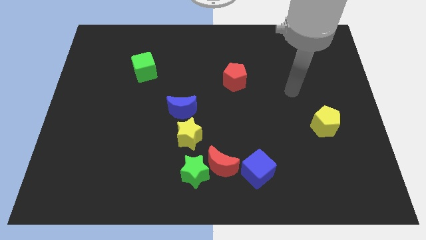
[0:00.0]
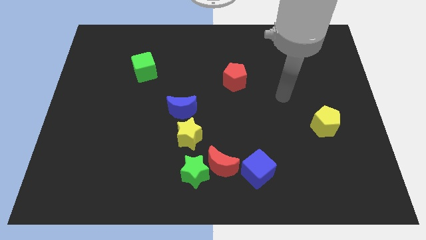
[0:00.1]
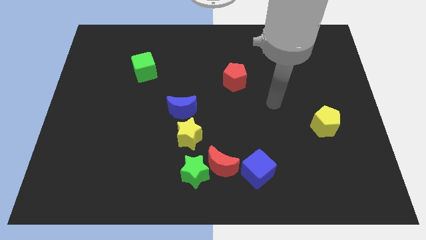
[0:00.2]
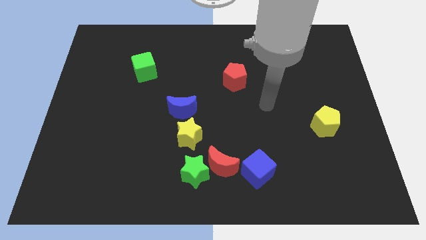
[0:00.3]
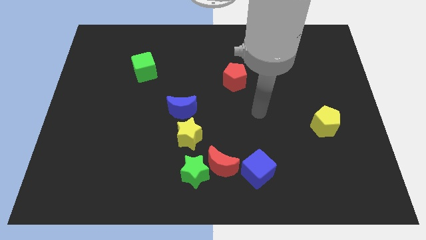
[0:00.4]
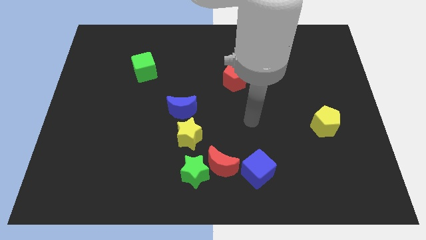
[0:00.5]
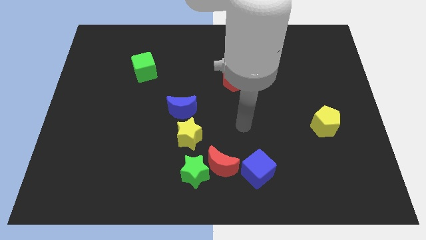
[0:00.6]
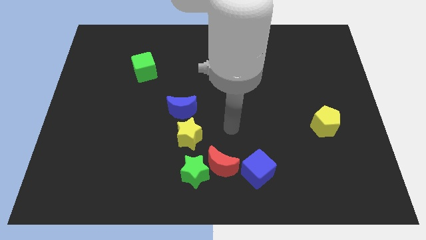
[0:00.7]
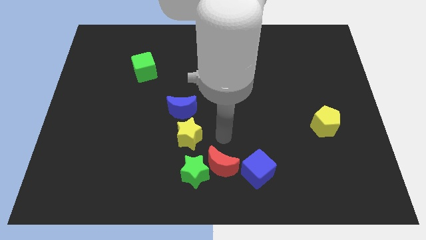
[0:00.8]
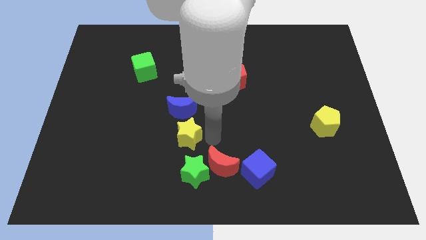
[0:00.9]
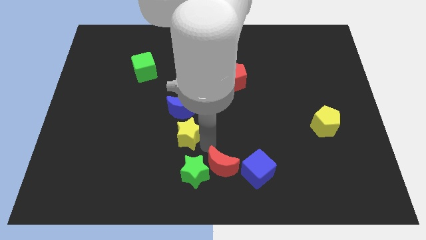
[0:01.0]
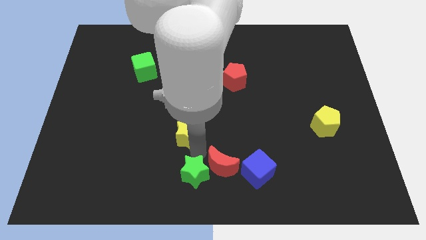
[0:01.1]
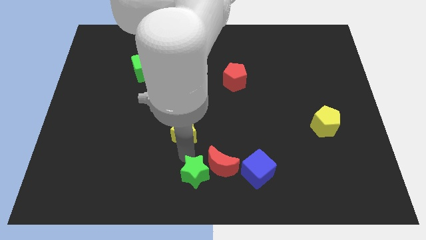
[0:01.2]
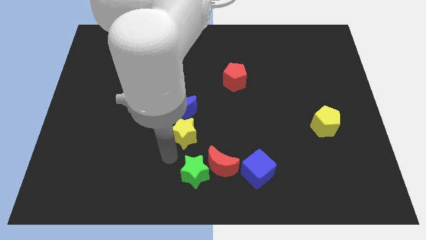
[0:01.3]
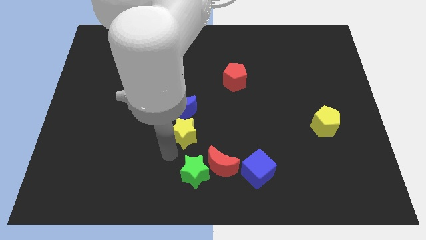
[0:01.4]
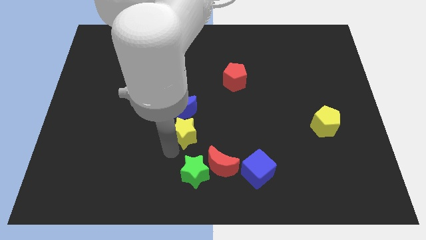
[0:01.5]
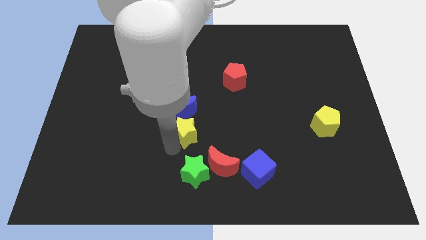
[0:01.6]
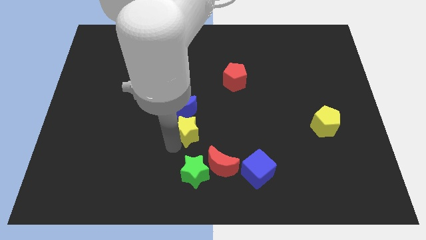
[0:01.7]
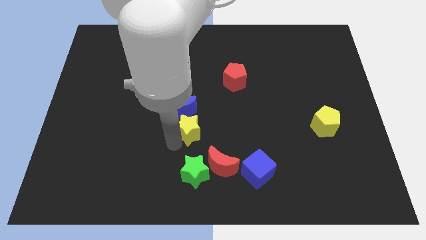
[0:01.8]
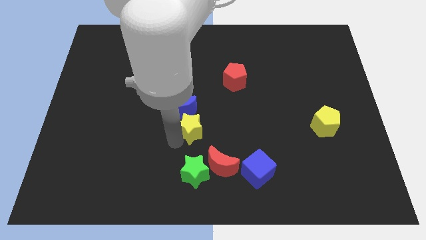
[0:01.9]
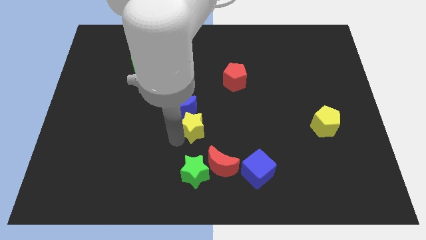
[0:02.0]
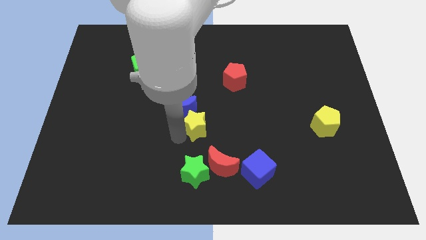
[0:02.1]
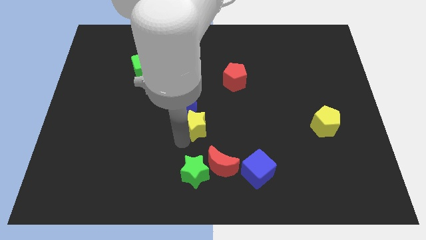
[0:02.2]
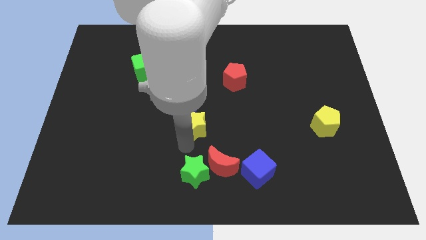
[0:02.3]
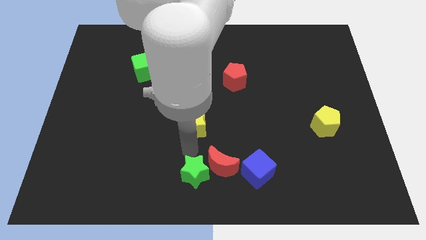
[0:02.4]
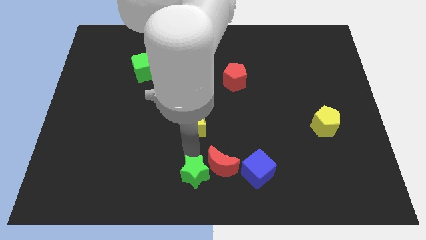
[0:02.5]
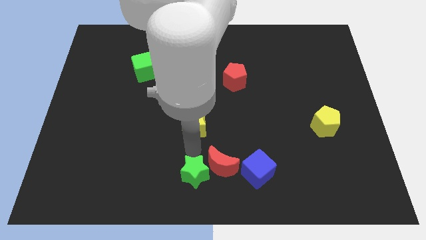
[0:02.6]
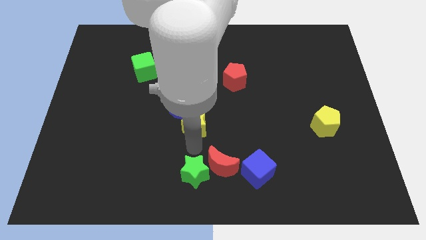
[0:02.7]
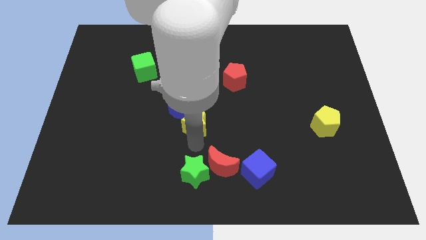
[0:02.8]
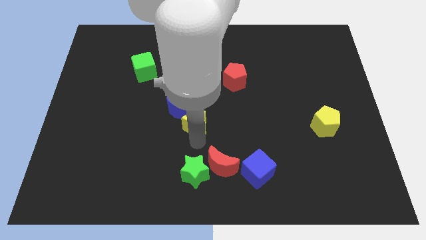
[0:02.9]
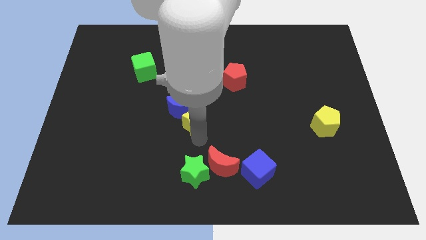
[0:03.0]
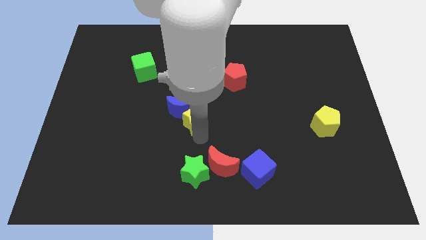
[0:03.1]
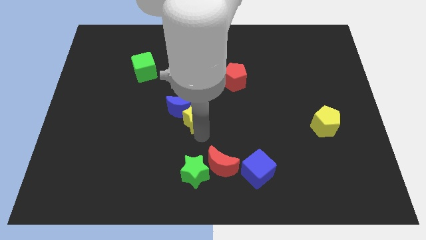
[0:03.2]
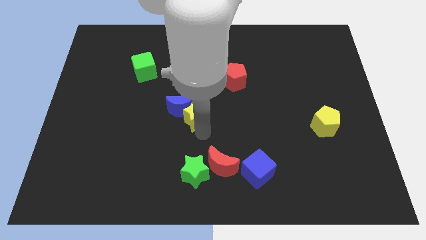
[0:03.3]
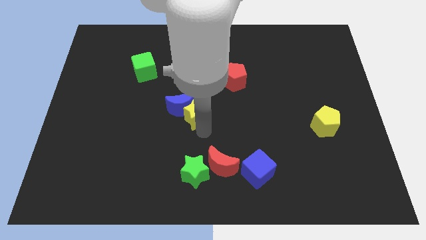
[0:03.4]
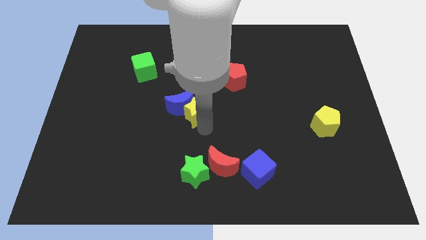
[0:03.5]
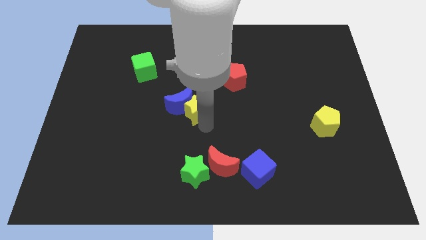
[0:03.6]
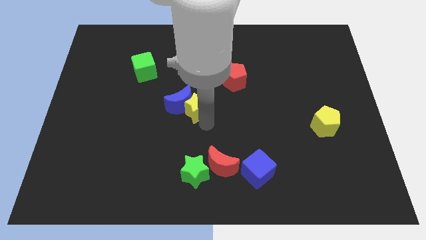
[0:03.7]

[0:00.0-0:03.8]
move the yellow star upwards a bit

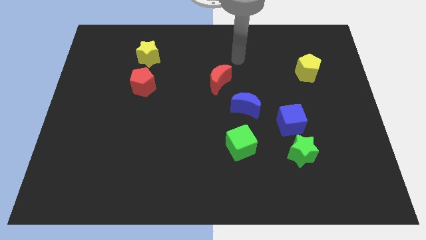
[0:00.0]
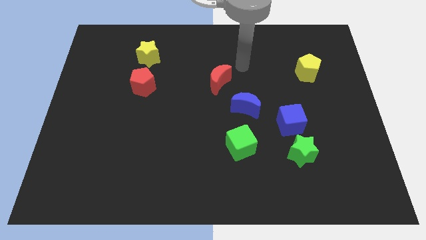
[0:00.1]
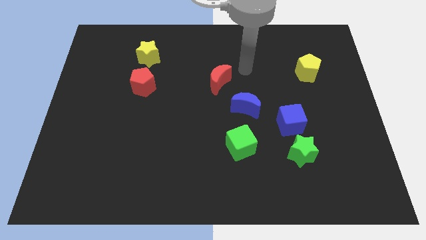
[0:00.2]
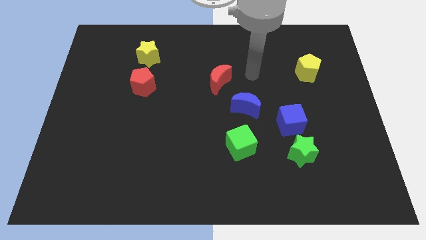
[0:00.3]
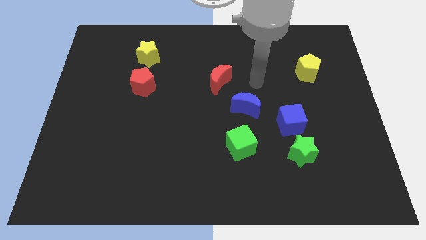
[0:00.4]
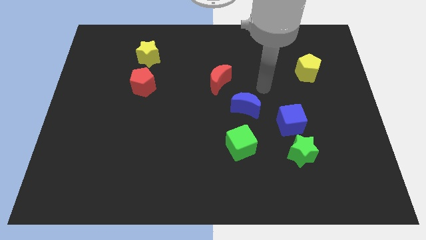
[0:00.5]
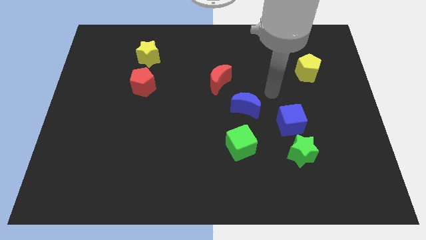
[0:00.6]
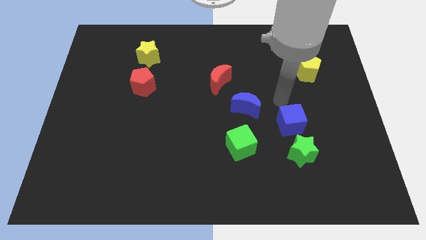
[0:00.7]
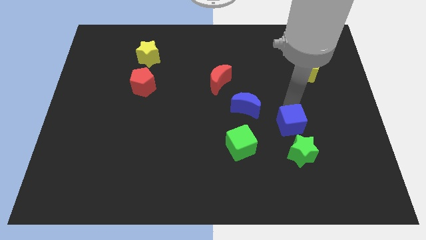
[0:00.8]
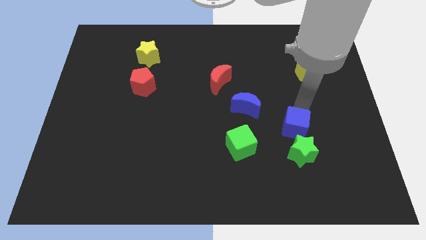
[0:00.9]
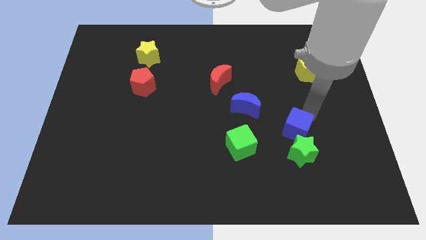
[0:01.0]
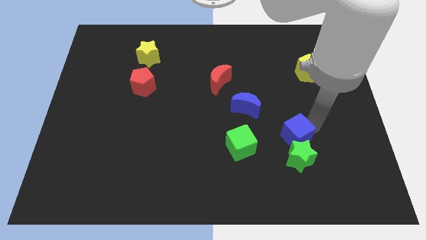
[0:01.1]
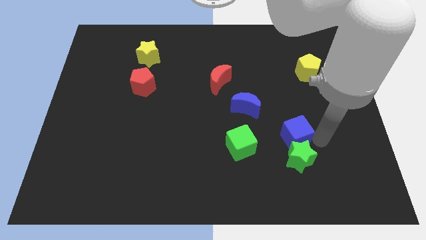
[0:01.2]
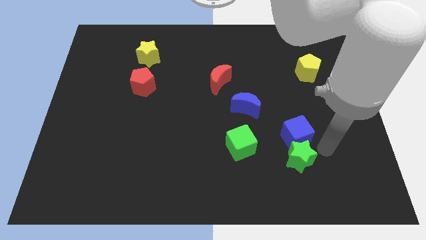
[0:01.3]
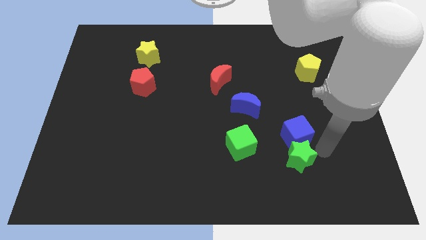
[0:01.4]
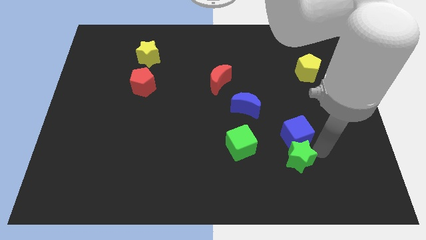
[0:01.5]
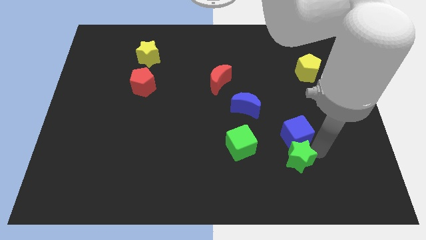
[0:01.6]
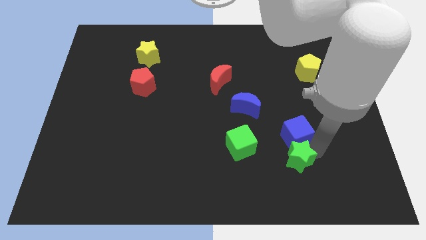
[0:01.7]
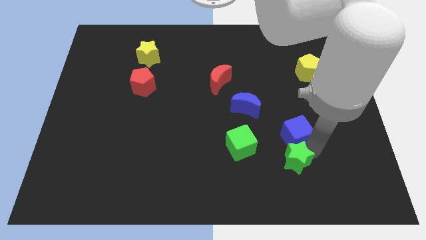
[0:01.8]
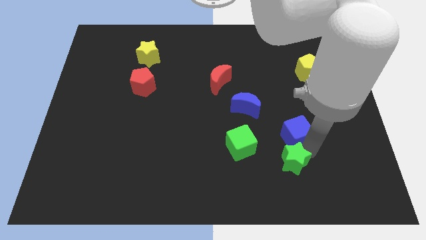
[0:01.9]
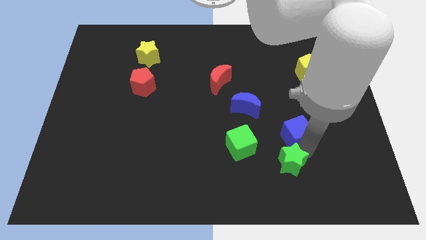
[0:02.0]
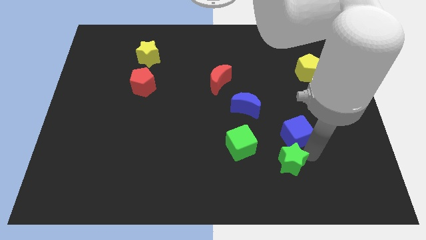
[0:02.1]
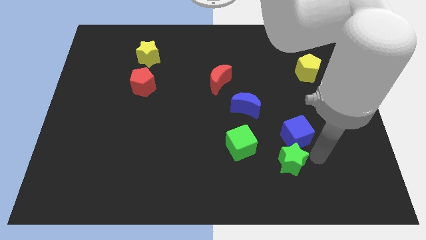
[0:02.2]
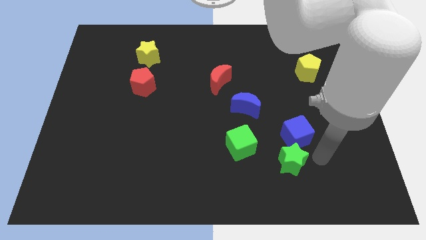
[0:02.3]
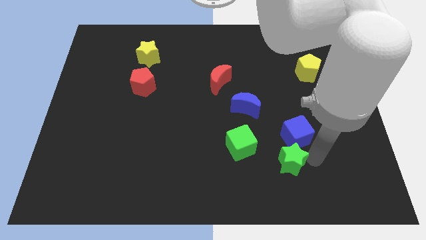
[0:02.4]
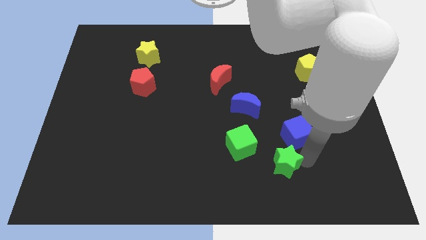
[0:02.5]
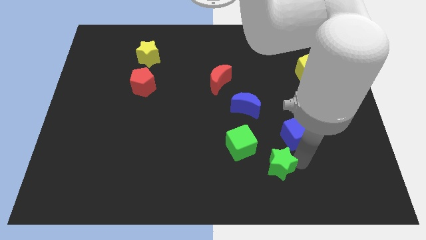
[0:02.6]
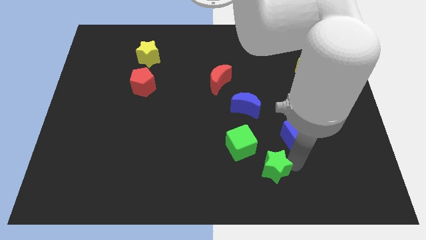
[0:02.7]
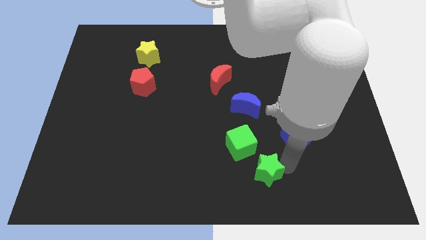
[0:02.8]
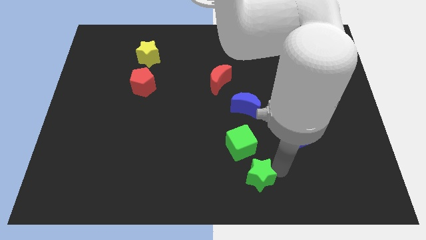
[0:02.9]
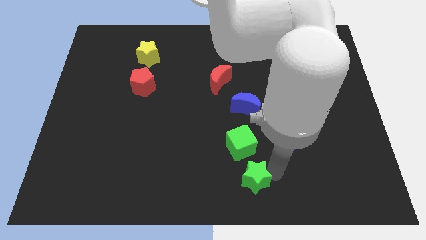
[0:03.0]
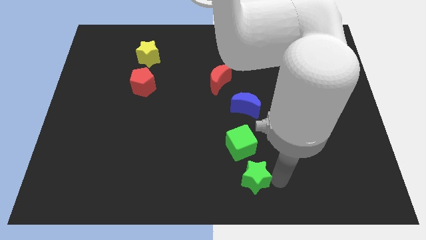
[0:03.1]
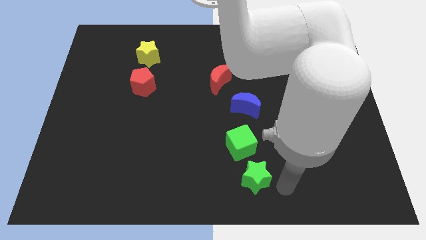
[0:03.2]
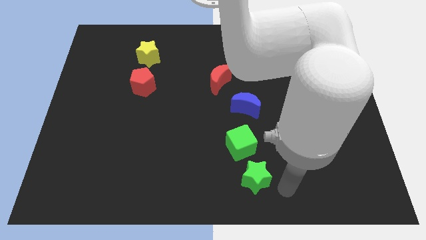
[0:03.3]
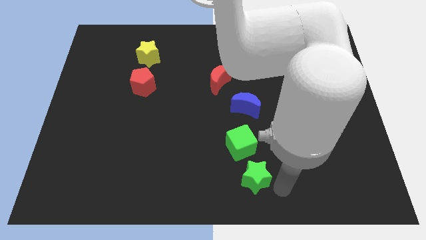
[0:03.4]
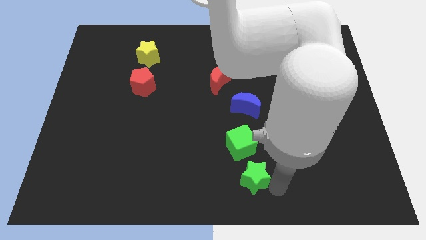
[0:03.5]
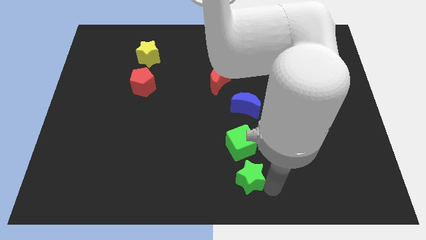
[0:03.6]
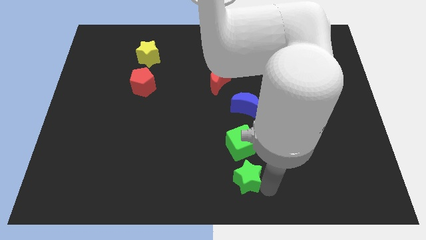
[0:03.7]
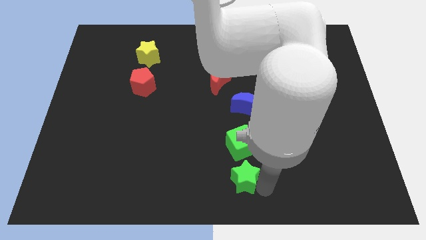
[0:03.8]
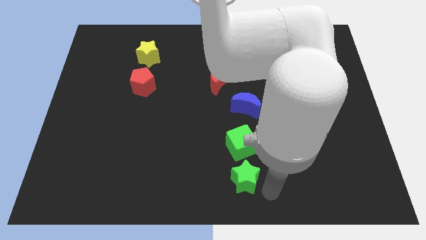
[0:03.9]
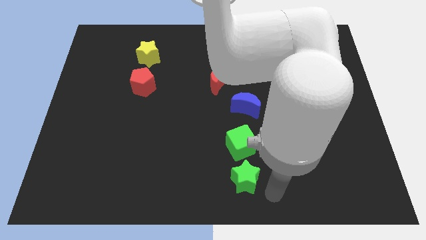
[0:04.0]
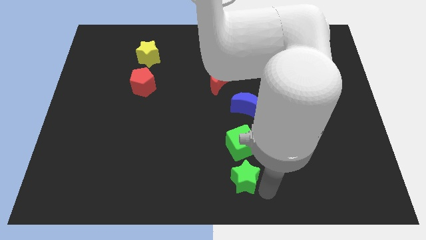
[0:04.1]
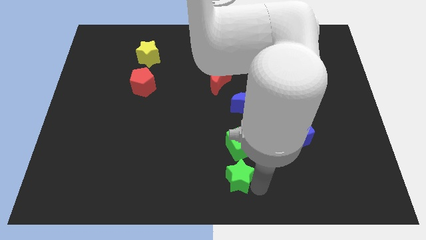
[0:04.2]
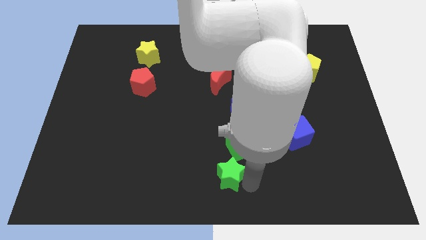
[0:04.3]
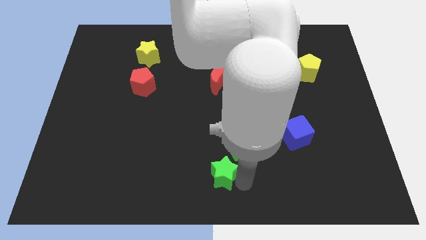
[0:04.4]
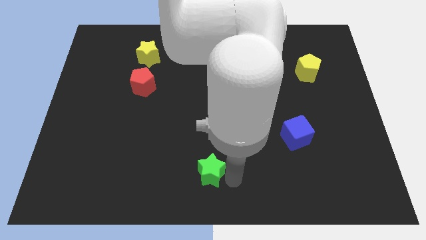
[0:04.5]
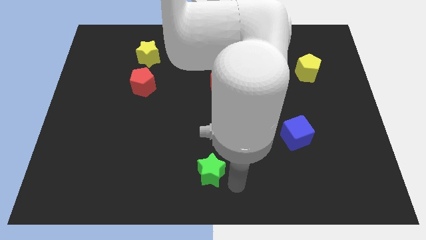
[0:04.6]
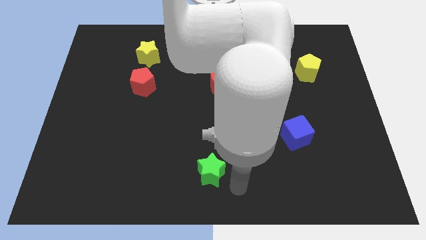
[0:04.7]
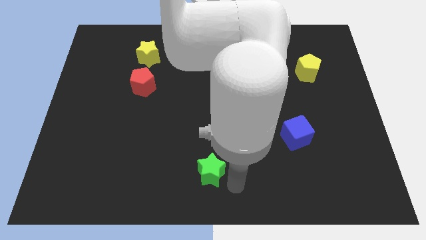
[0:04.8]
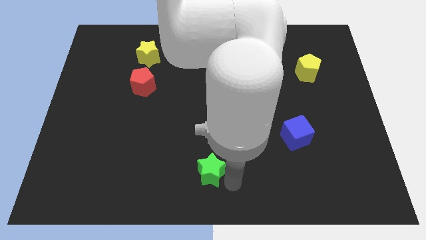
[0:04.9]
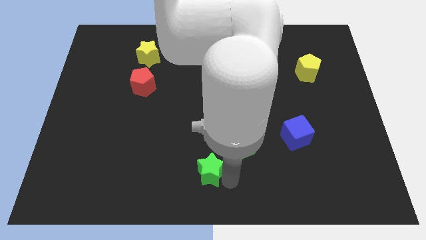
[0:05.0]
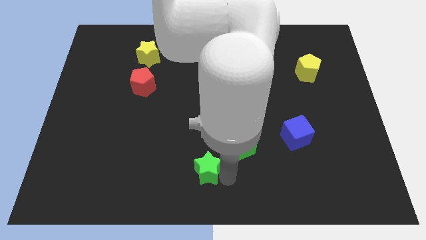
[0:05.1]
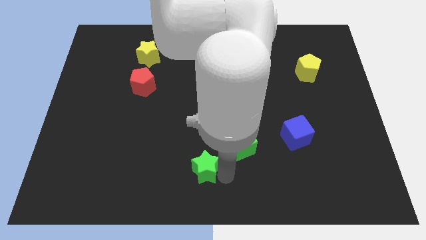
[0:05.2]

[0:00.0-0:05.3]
slide the green star to the left
